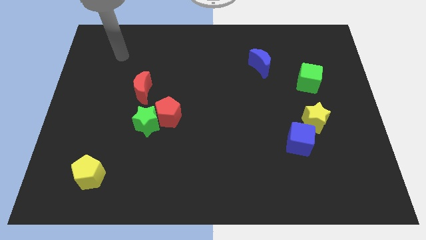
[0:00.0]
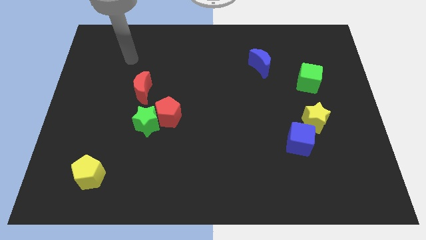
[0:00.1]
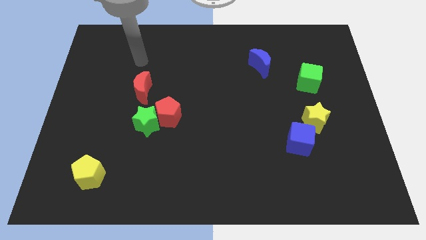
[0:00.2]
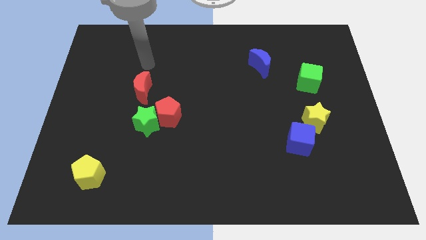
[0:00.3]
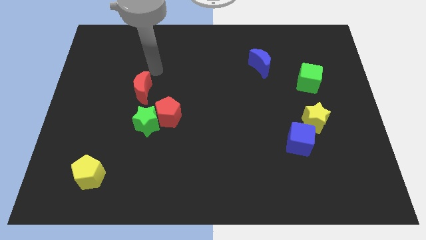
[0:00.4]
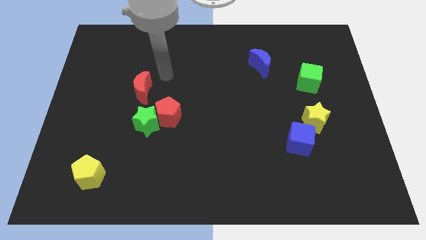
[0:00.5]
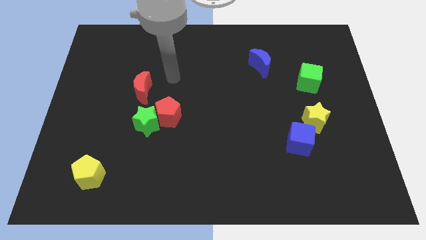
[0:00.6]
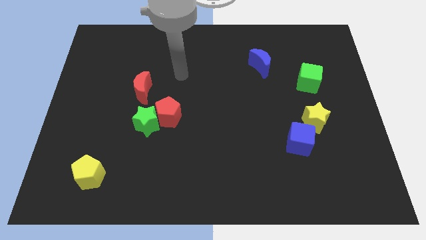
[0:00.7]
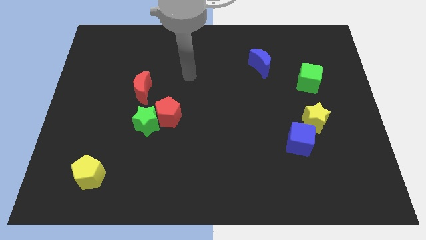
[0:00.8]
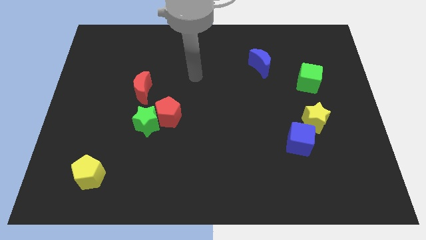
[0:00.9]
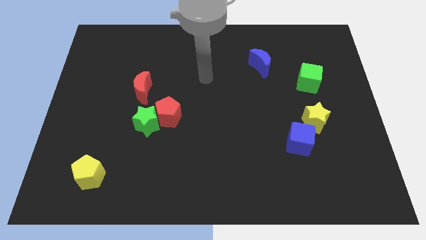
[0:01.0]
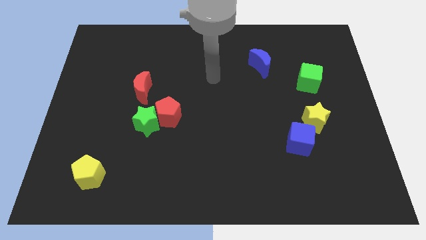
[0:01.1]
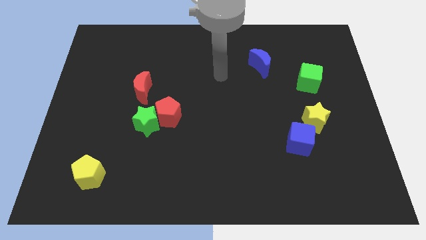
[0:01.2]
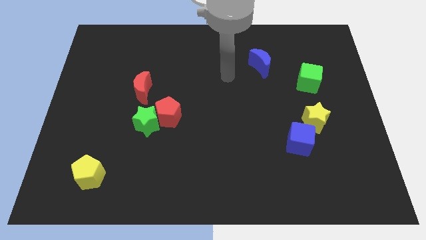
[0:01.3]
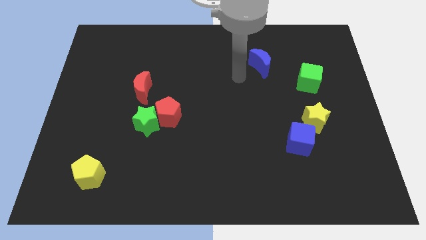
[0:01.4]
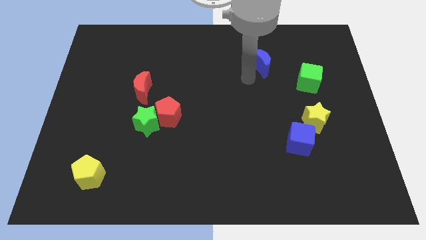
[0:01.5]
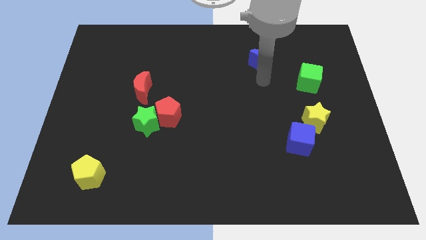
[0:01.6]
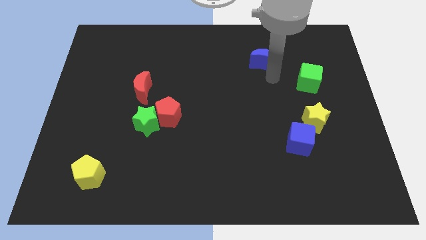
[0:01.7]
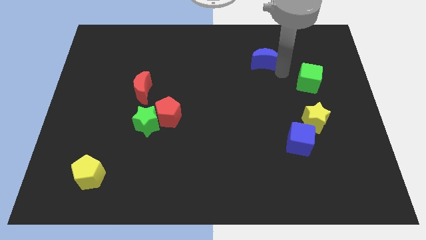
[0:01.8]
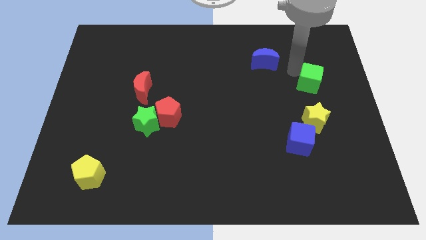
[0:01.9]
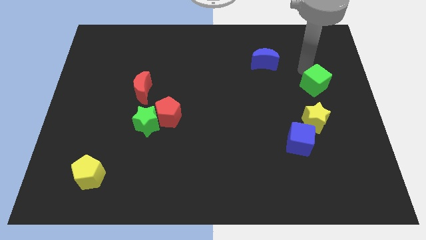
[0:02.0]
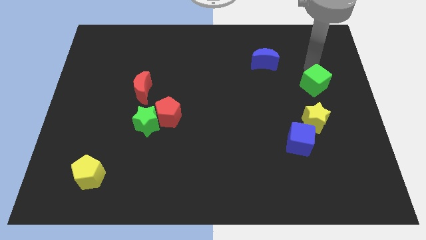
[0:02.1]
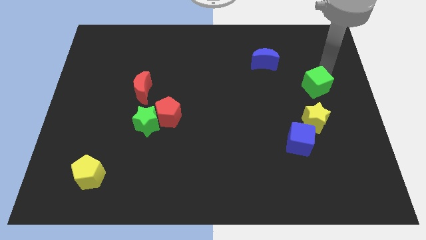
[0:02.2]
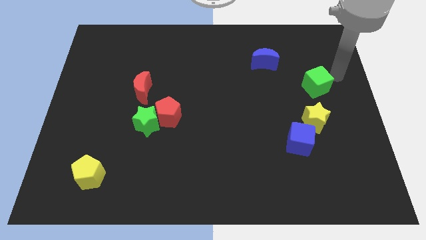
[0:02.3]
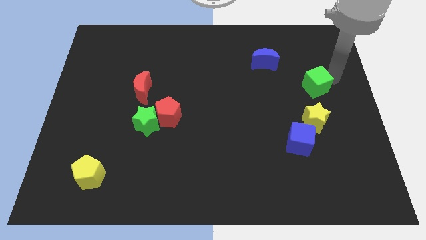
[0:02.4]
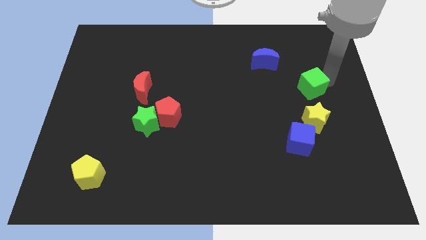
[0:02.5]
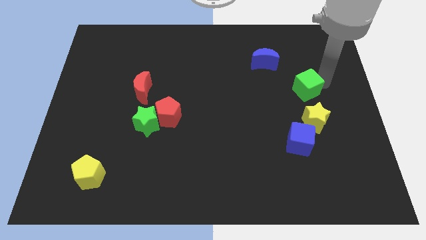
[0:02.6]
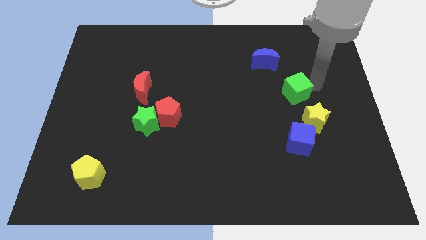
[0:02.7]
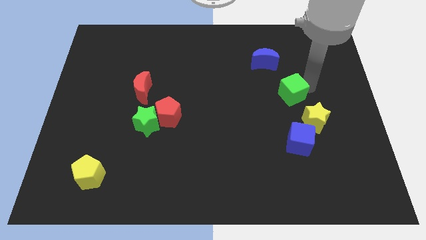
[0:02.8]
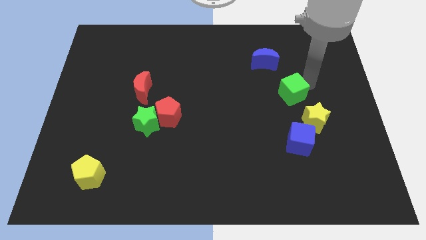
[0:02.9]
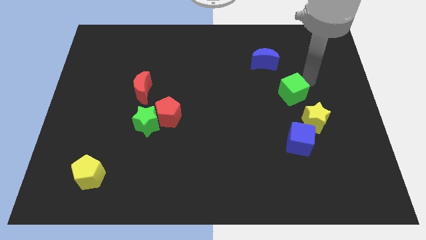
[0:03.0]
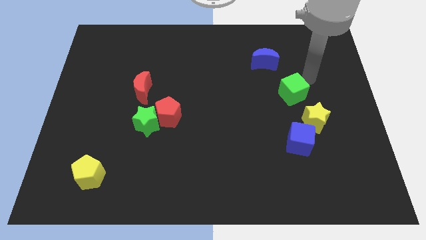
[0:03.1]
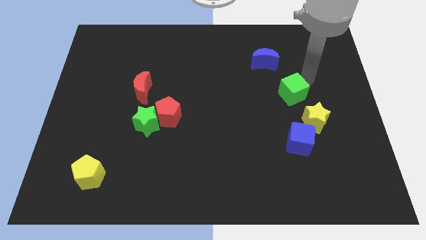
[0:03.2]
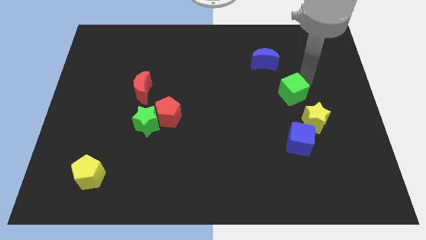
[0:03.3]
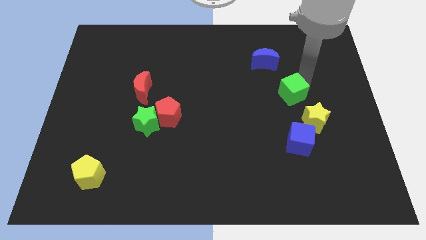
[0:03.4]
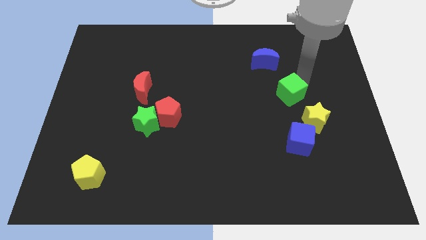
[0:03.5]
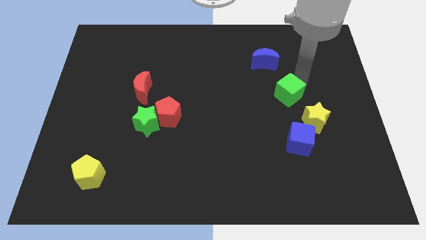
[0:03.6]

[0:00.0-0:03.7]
push the green cube down and to the left a little bit

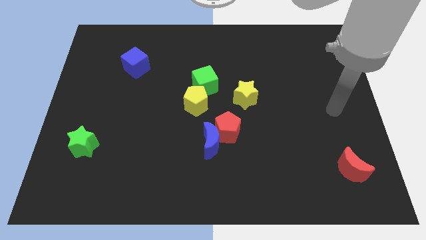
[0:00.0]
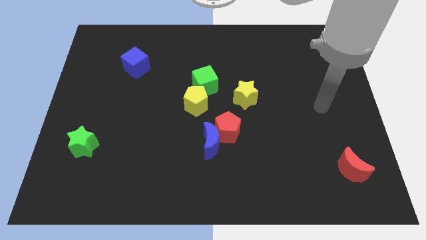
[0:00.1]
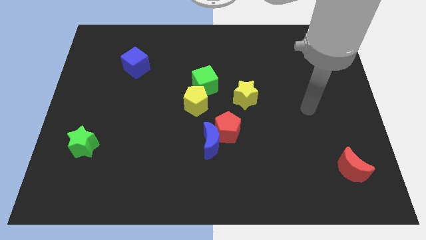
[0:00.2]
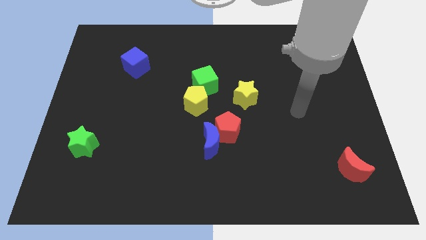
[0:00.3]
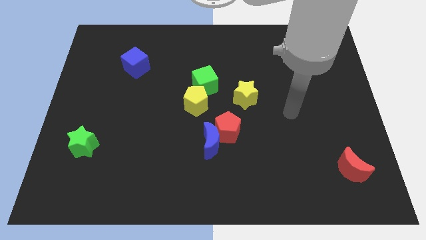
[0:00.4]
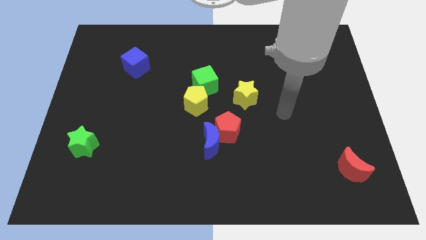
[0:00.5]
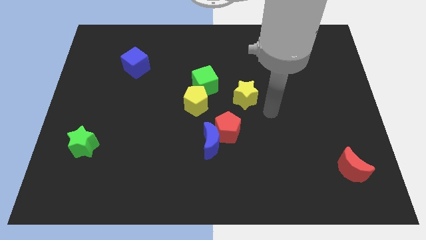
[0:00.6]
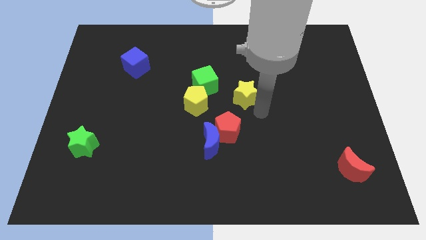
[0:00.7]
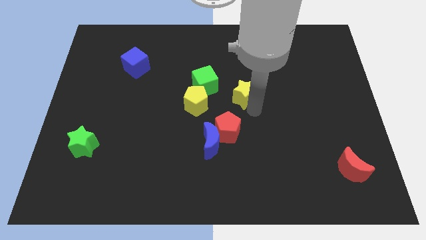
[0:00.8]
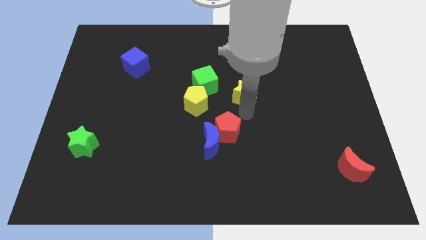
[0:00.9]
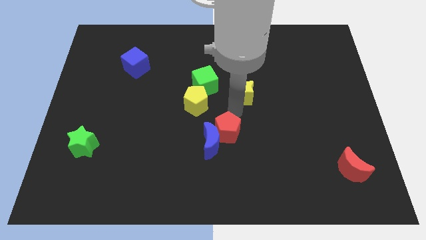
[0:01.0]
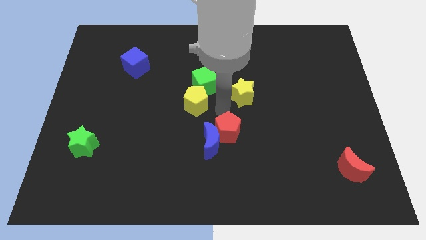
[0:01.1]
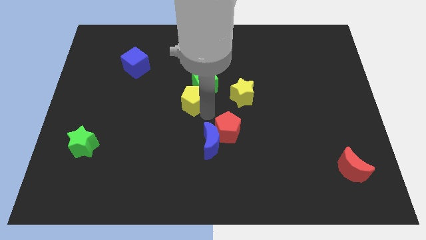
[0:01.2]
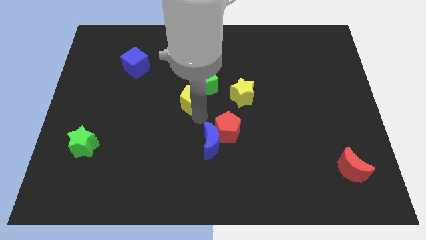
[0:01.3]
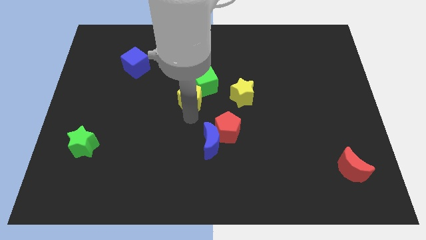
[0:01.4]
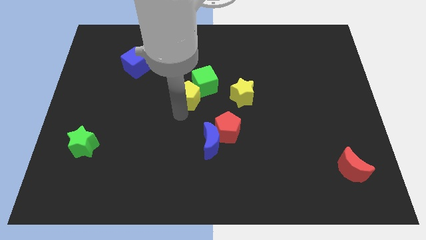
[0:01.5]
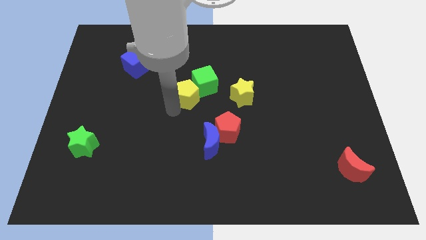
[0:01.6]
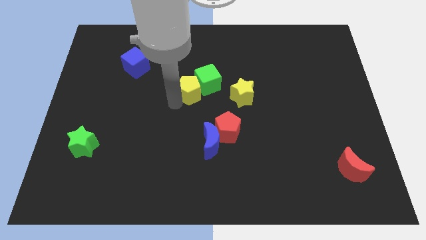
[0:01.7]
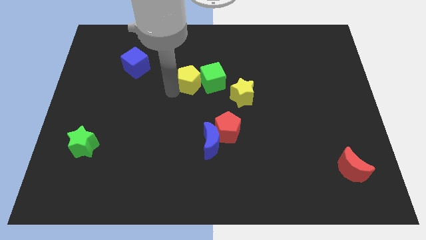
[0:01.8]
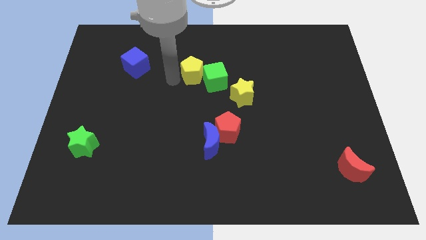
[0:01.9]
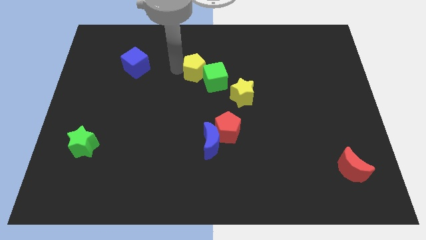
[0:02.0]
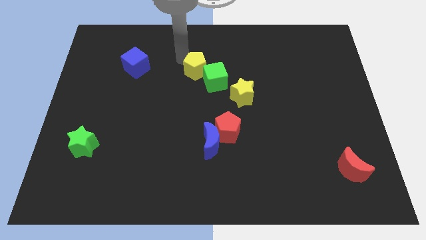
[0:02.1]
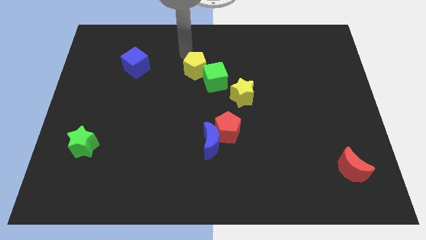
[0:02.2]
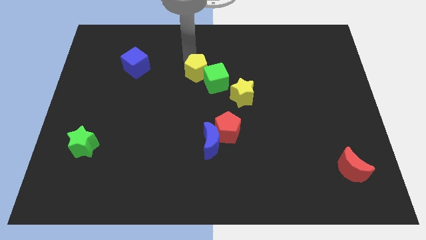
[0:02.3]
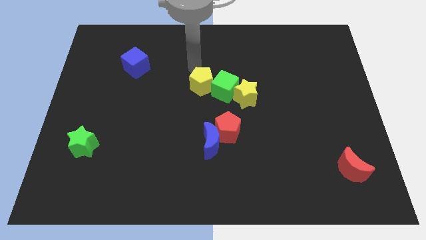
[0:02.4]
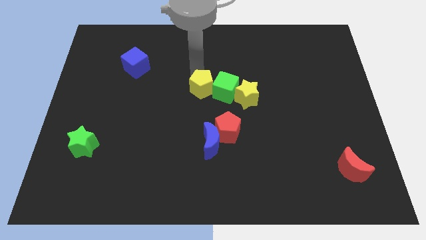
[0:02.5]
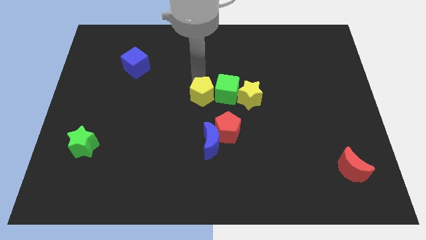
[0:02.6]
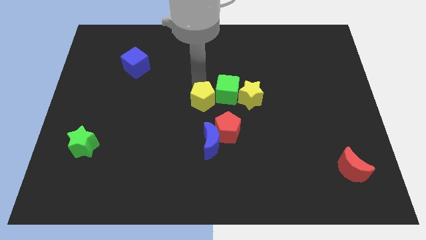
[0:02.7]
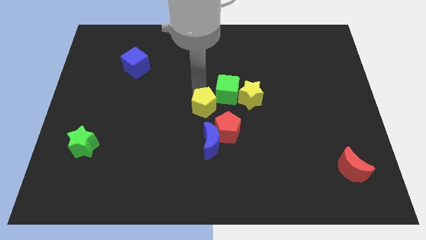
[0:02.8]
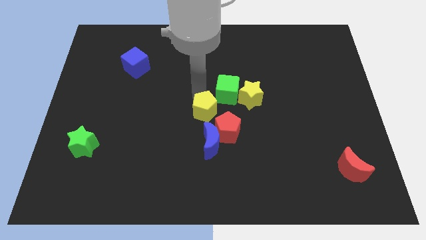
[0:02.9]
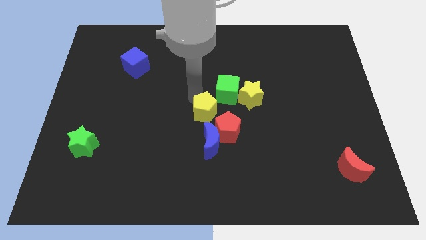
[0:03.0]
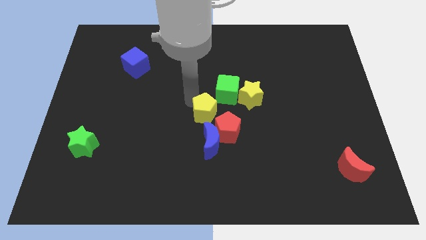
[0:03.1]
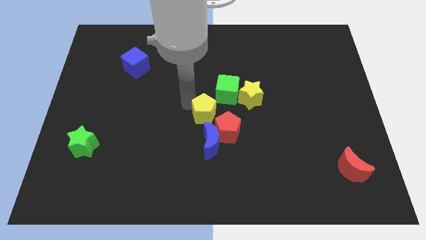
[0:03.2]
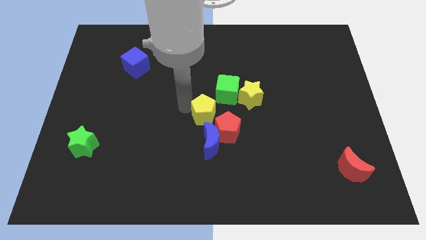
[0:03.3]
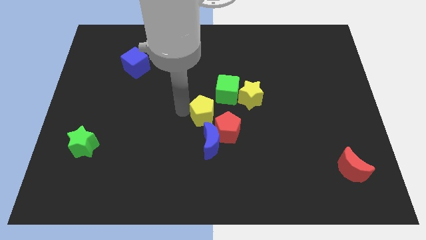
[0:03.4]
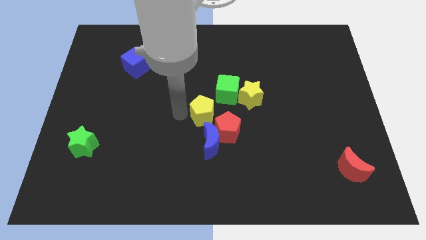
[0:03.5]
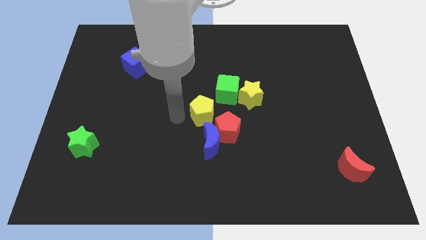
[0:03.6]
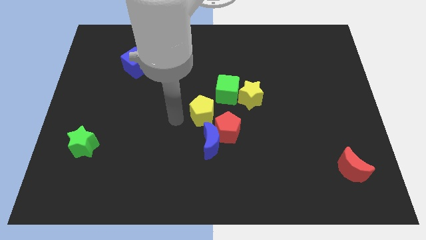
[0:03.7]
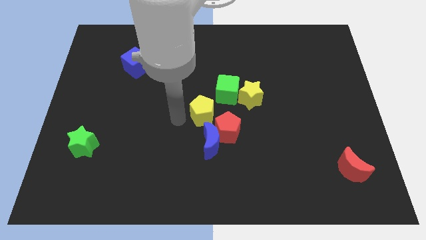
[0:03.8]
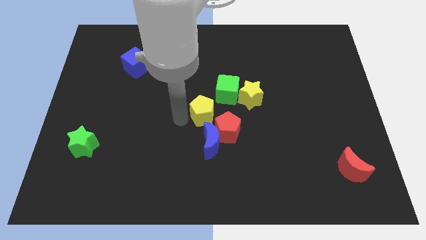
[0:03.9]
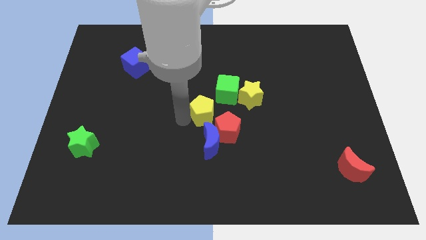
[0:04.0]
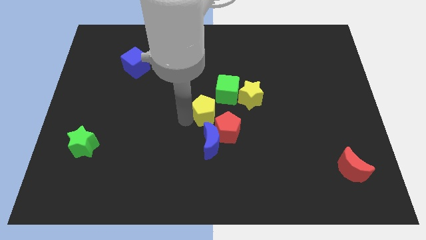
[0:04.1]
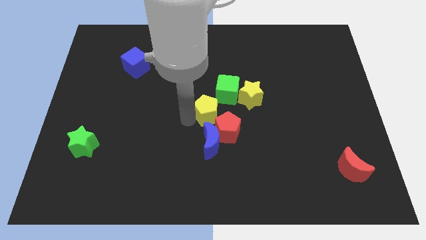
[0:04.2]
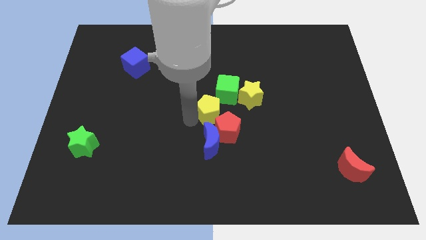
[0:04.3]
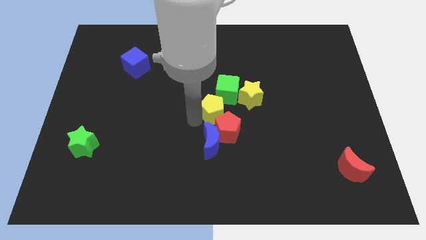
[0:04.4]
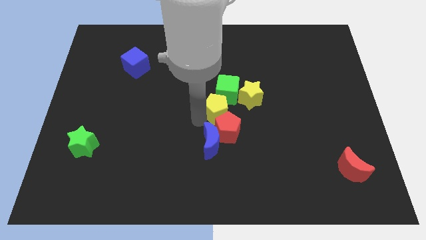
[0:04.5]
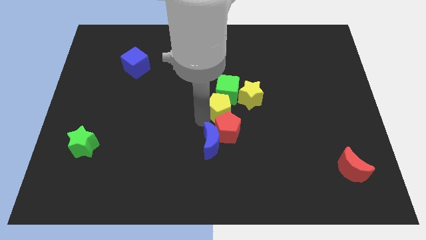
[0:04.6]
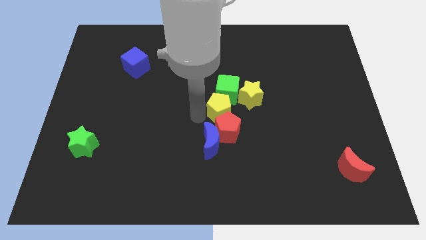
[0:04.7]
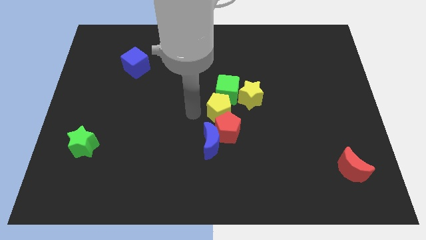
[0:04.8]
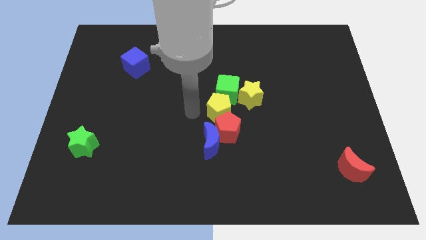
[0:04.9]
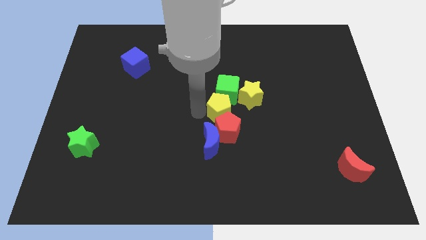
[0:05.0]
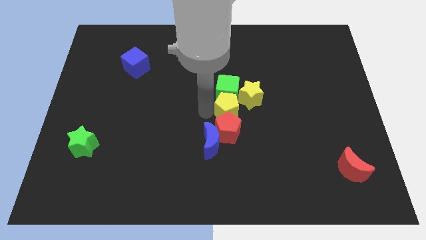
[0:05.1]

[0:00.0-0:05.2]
move the yellow pentagon a little right
